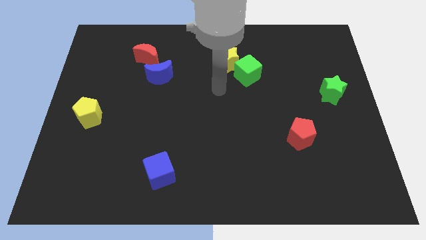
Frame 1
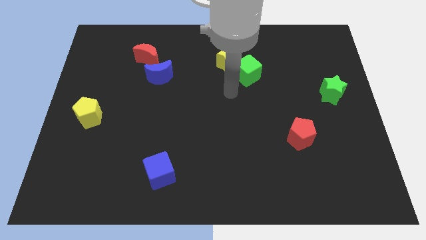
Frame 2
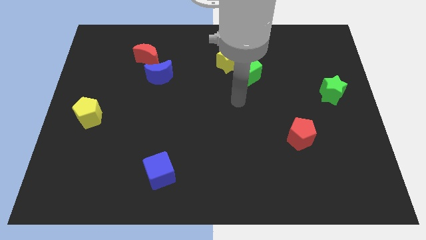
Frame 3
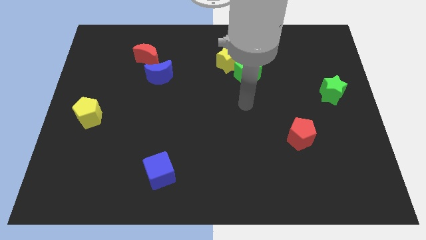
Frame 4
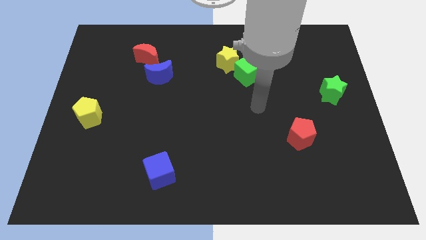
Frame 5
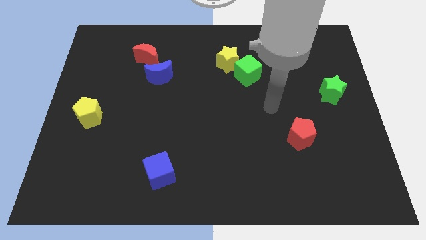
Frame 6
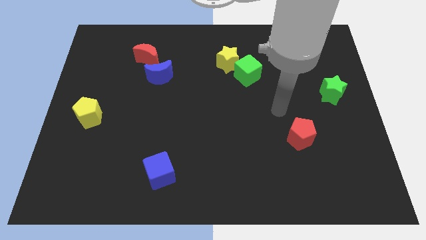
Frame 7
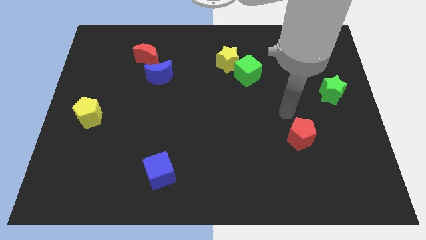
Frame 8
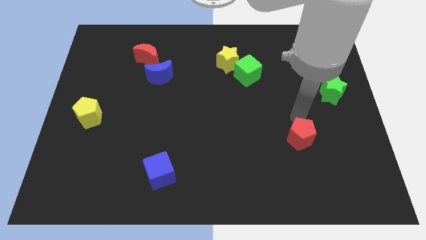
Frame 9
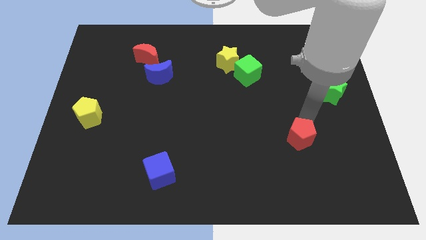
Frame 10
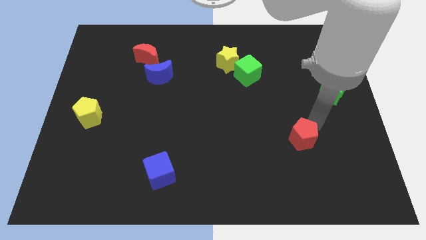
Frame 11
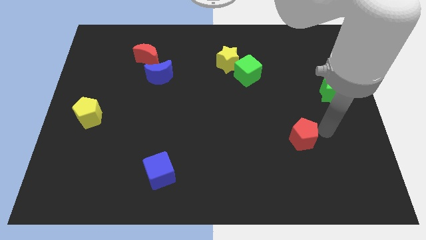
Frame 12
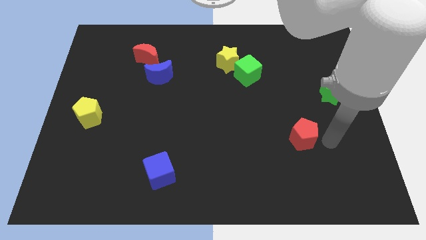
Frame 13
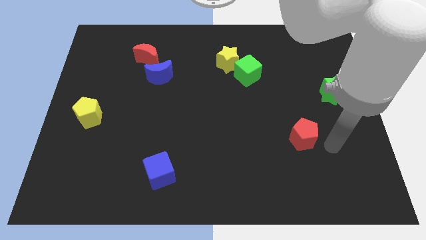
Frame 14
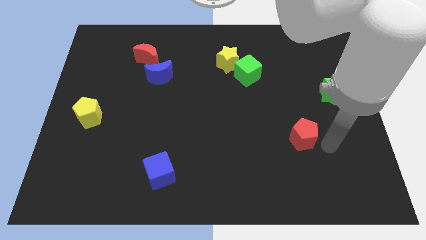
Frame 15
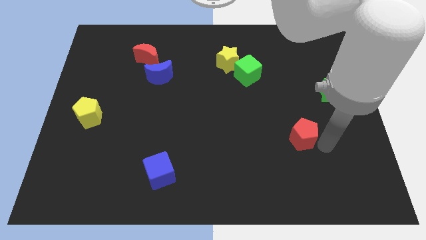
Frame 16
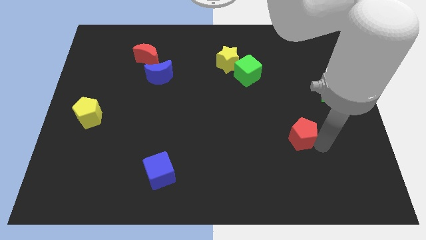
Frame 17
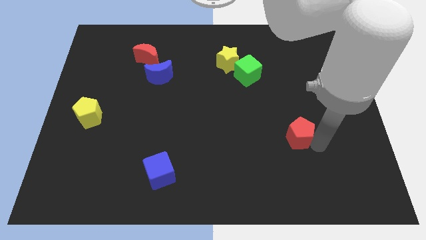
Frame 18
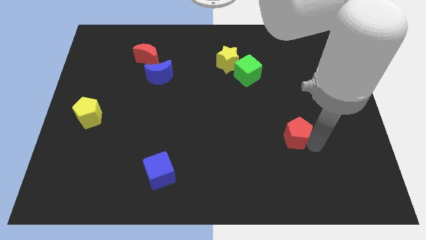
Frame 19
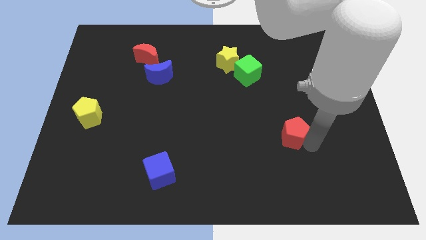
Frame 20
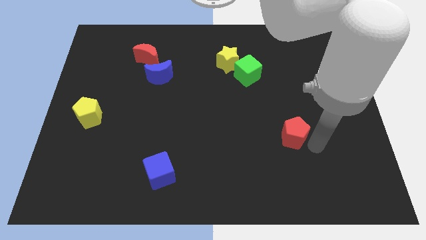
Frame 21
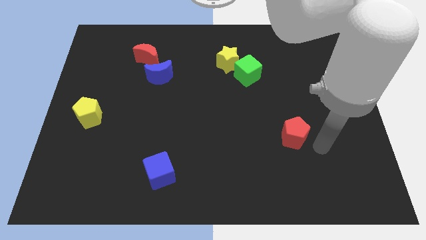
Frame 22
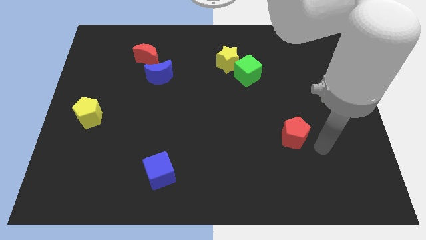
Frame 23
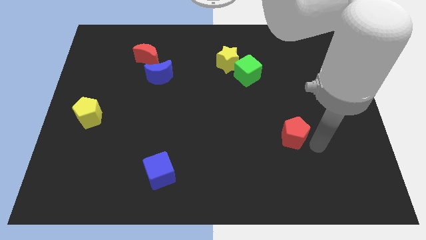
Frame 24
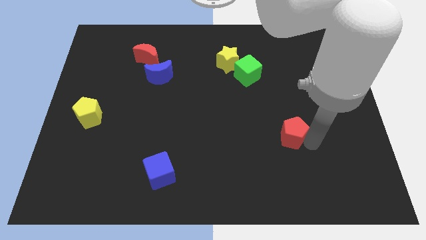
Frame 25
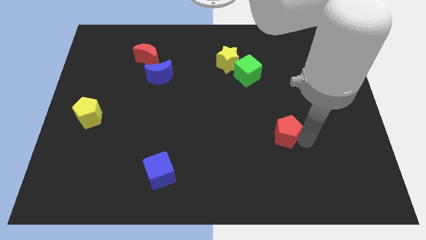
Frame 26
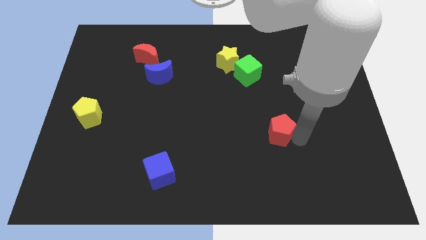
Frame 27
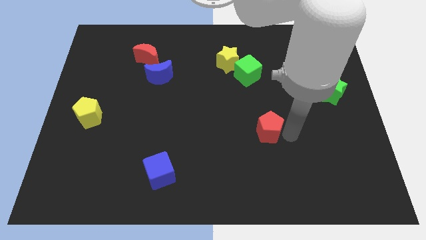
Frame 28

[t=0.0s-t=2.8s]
move the red pentagon somewhat left

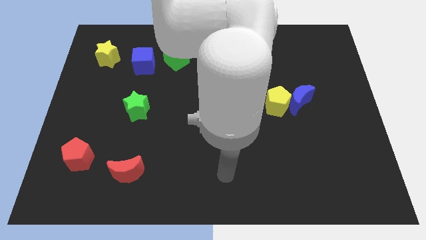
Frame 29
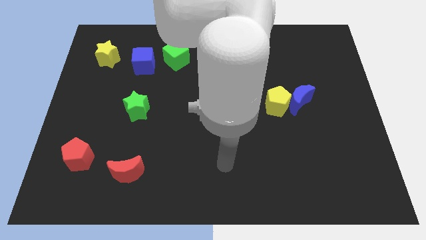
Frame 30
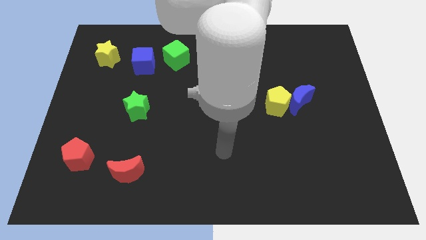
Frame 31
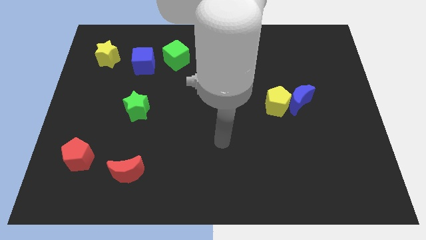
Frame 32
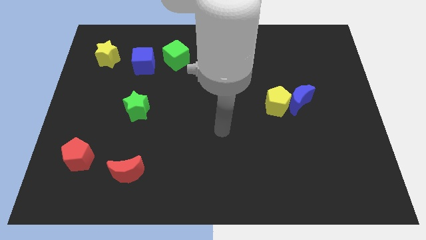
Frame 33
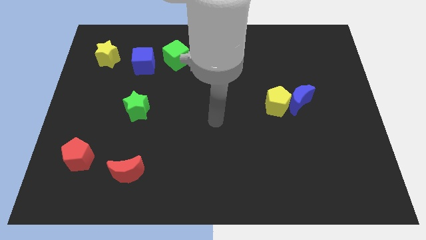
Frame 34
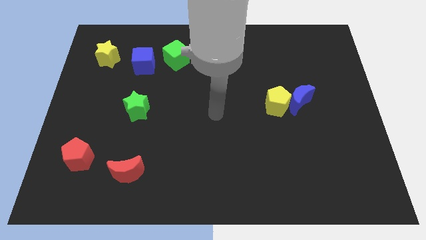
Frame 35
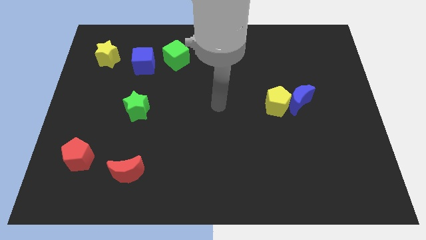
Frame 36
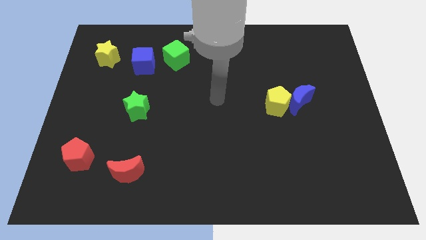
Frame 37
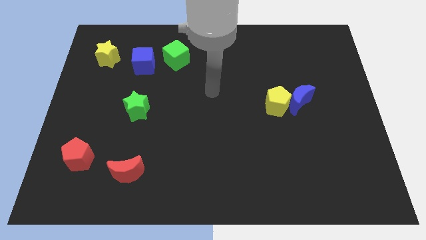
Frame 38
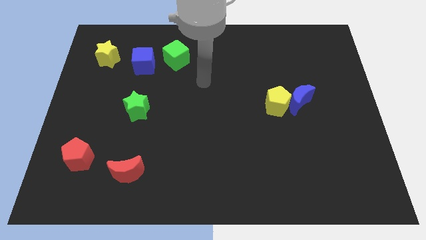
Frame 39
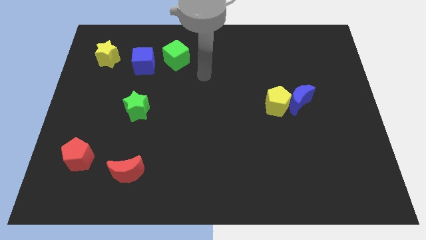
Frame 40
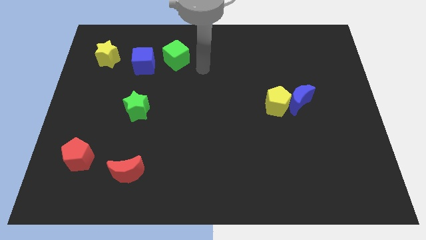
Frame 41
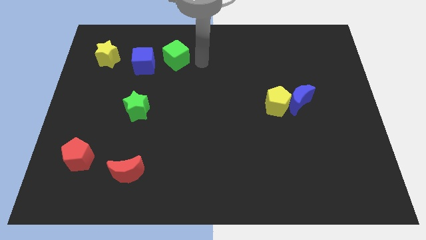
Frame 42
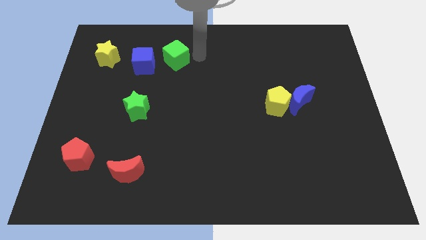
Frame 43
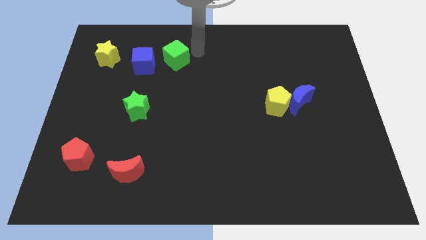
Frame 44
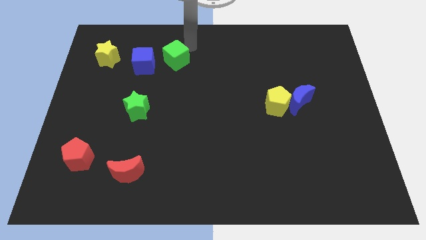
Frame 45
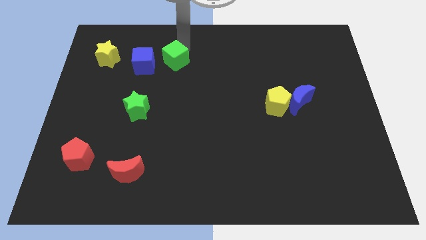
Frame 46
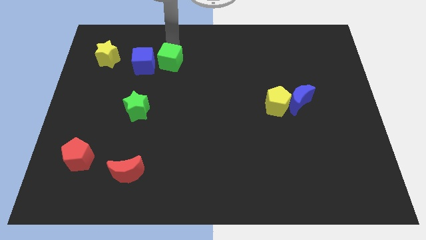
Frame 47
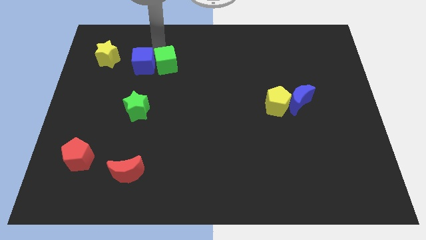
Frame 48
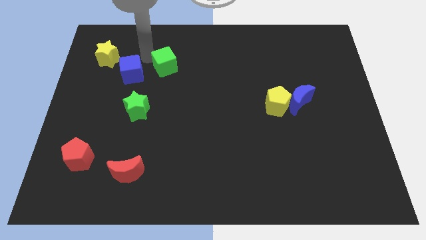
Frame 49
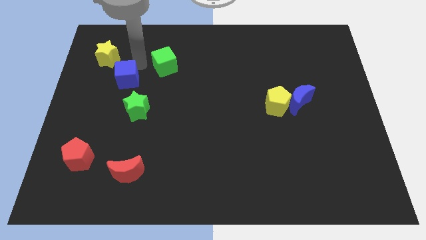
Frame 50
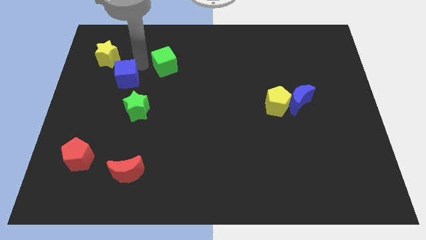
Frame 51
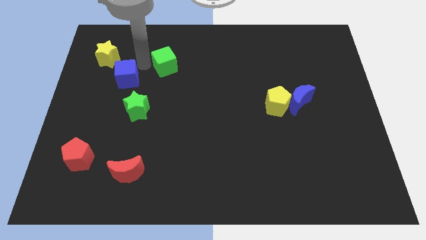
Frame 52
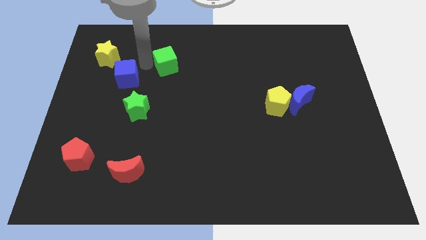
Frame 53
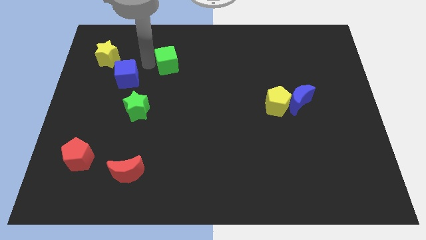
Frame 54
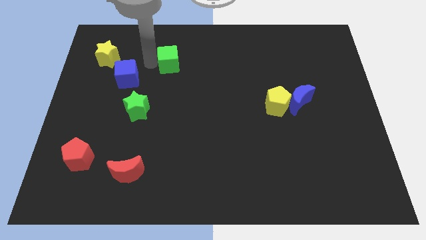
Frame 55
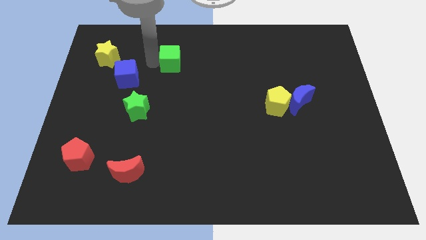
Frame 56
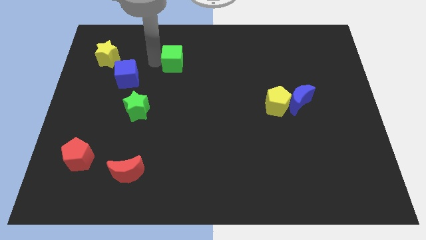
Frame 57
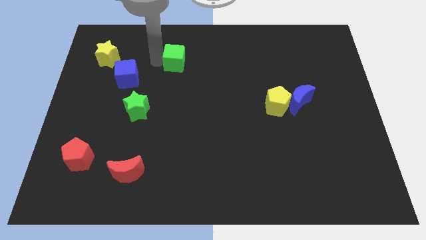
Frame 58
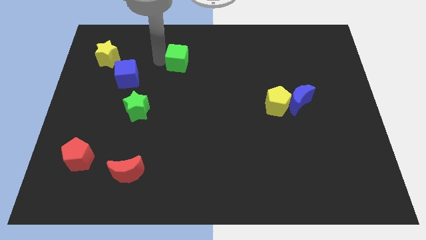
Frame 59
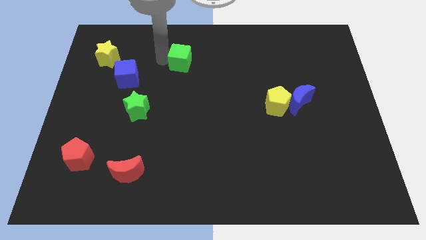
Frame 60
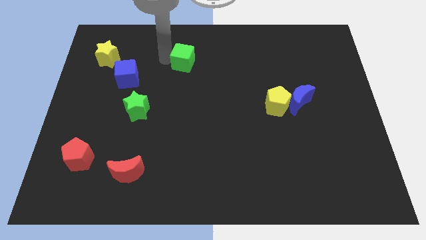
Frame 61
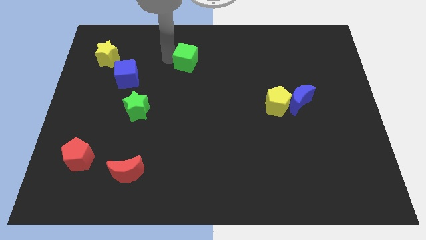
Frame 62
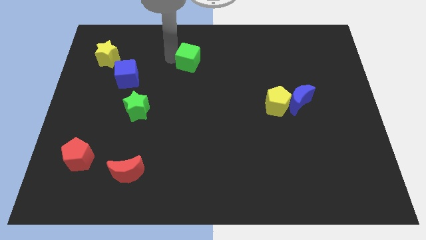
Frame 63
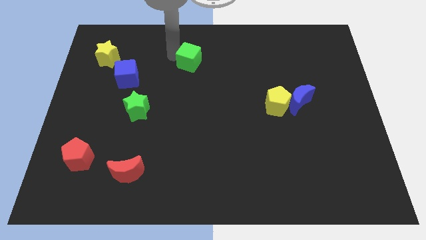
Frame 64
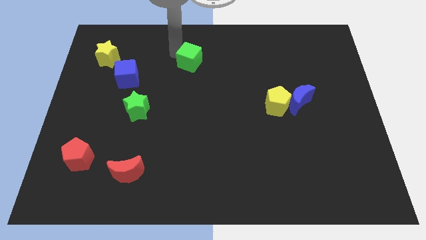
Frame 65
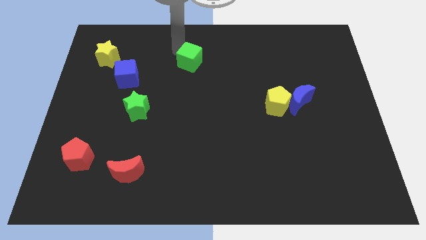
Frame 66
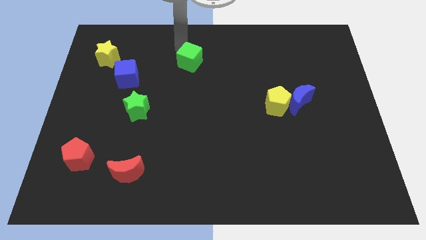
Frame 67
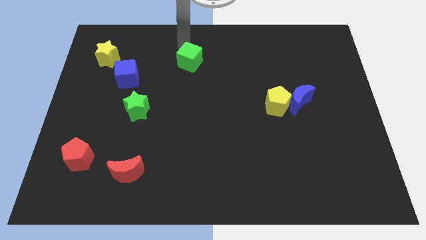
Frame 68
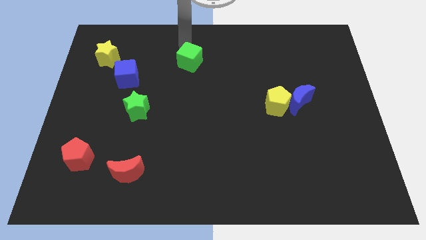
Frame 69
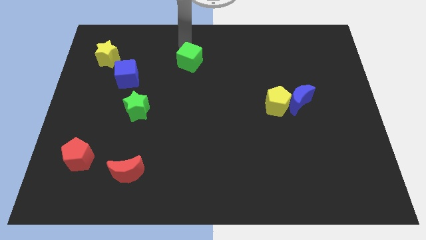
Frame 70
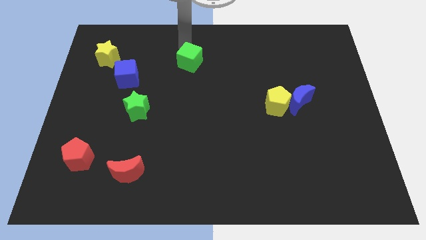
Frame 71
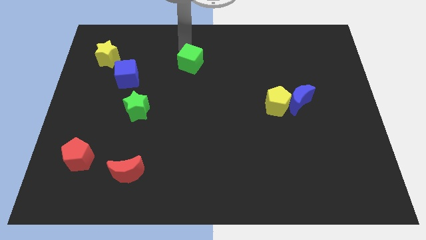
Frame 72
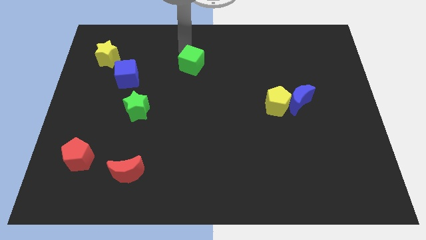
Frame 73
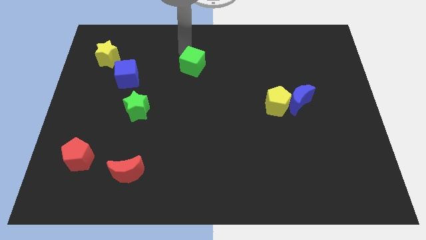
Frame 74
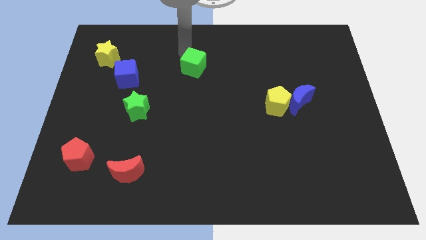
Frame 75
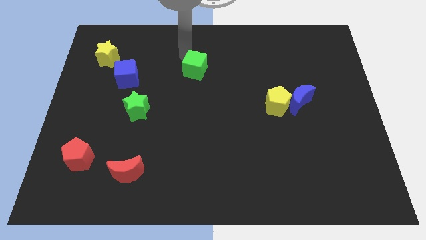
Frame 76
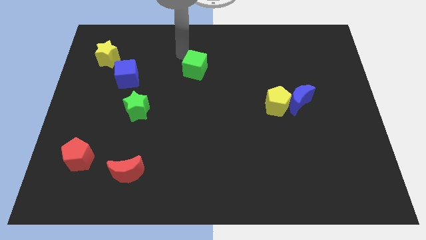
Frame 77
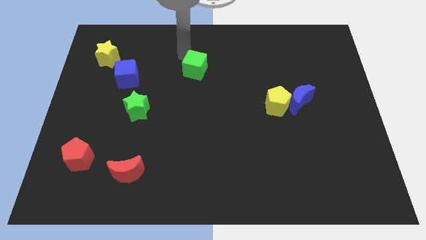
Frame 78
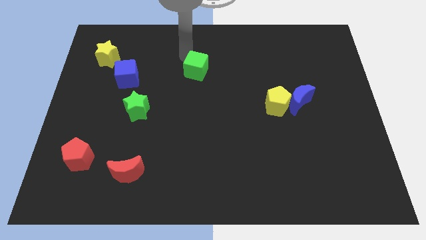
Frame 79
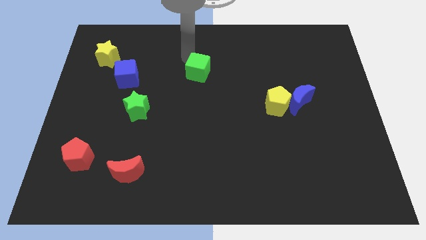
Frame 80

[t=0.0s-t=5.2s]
move the green cube slightly diagonally down and right

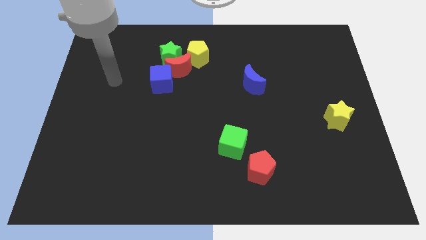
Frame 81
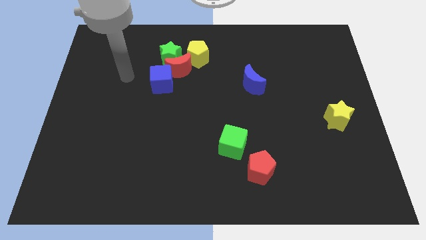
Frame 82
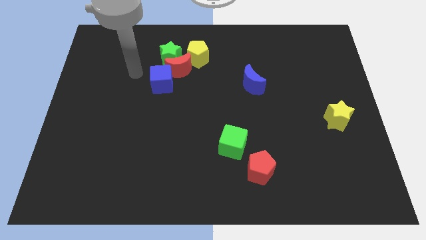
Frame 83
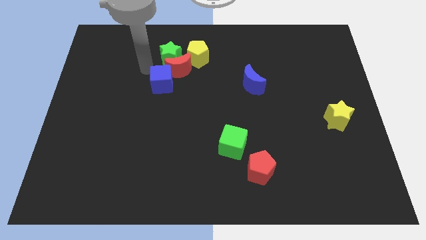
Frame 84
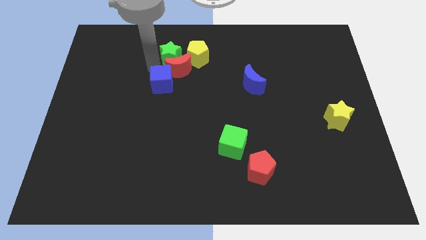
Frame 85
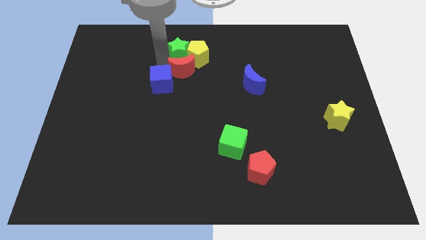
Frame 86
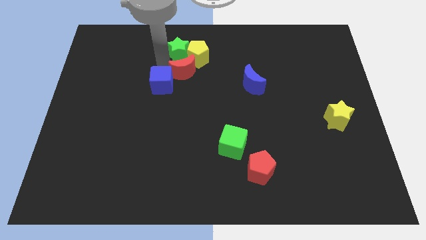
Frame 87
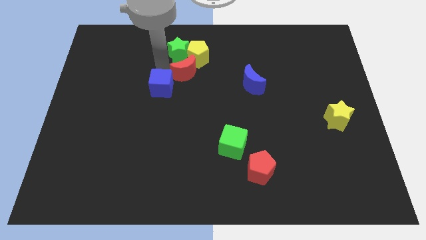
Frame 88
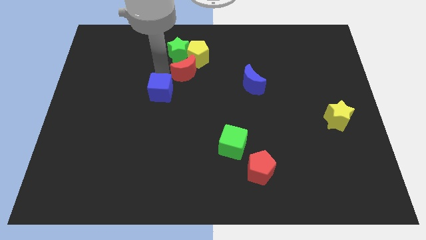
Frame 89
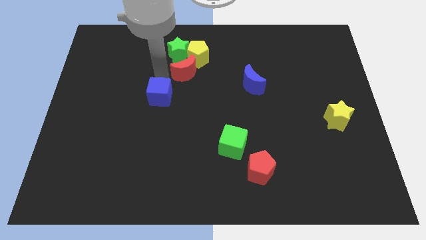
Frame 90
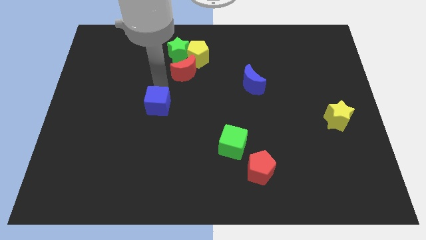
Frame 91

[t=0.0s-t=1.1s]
slightly slide the blue cube downwards
